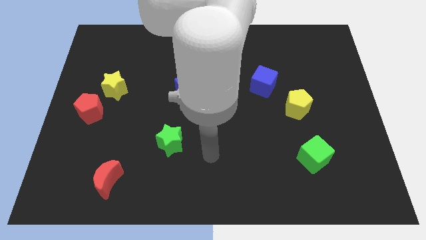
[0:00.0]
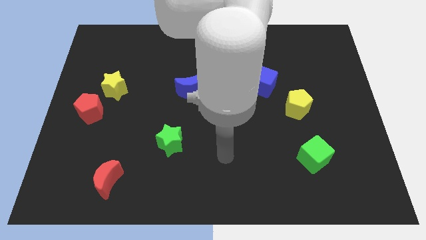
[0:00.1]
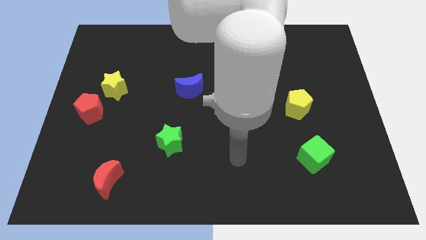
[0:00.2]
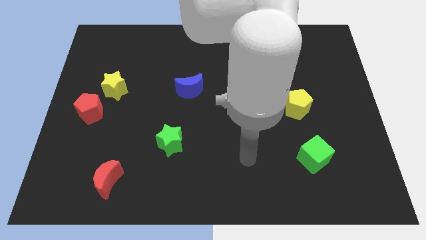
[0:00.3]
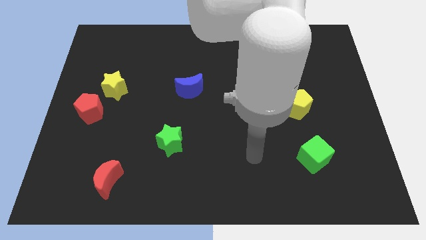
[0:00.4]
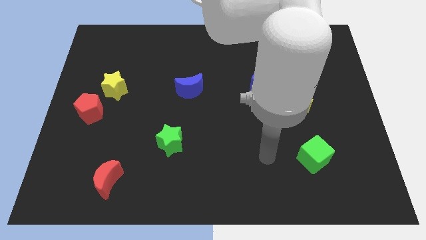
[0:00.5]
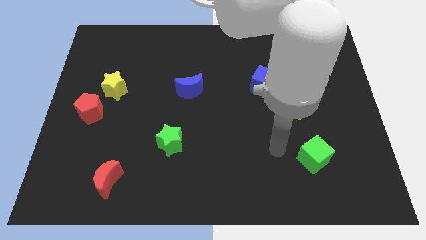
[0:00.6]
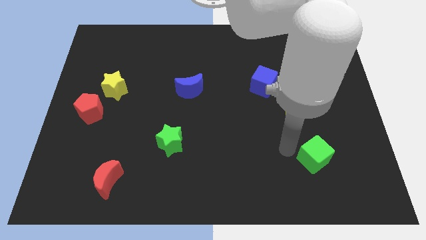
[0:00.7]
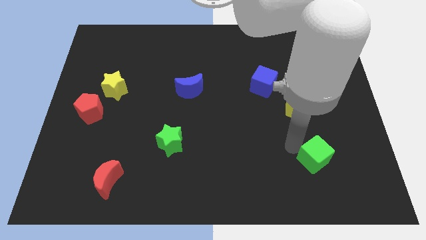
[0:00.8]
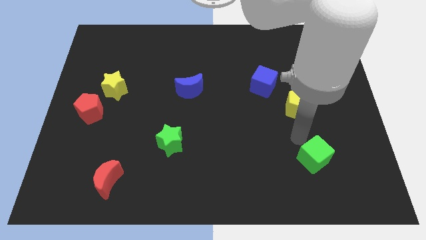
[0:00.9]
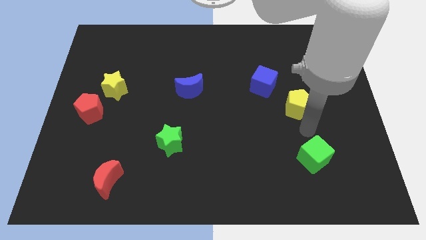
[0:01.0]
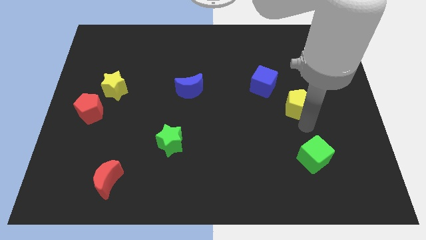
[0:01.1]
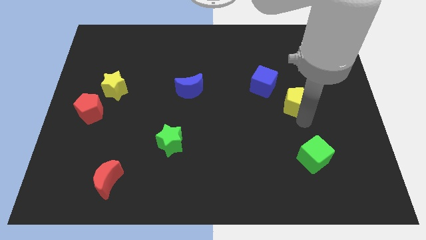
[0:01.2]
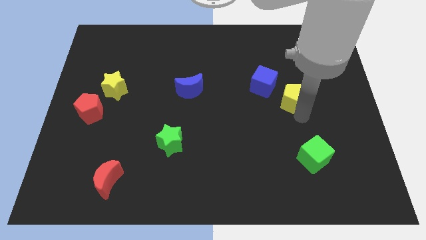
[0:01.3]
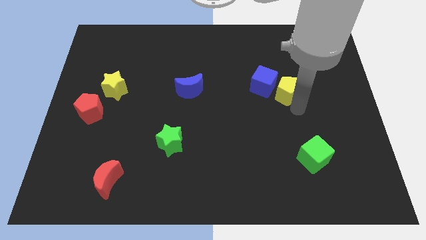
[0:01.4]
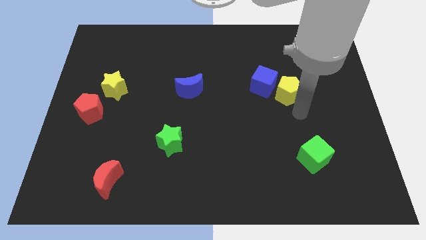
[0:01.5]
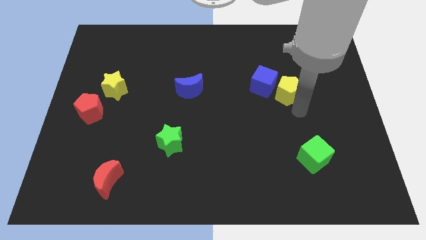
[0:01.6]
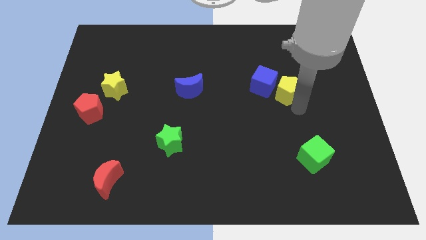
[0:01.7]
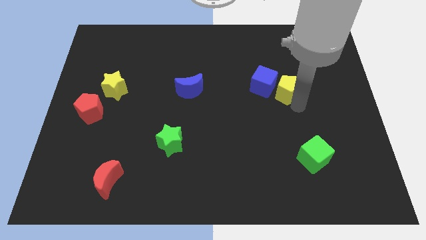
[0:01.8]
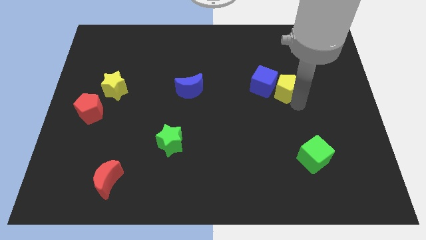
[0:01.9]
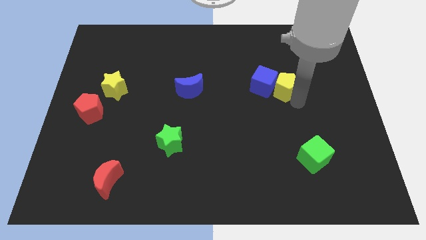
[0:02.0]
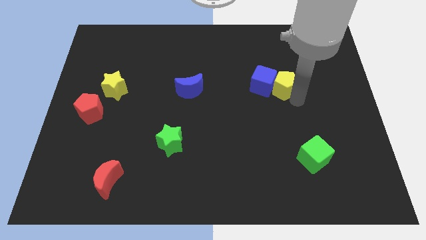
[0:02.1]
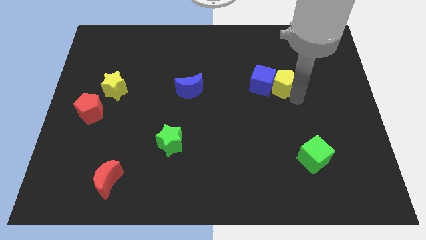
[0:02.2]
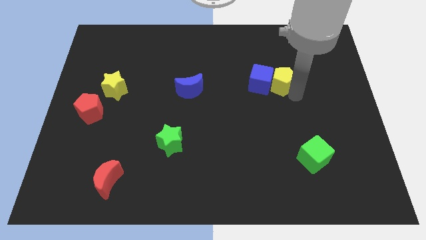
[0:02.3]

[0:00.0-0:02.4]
slightly move the yellow pentagon upwards and left diagonally

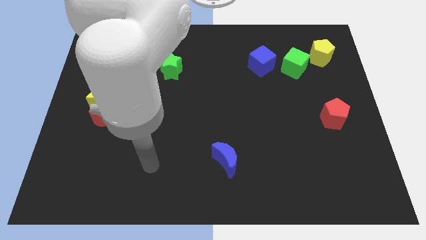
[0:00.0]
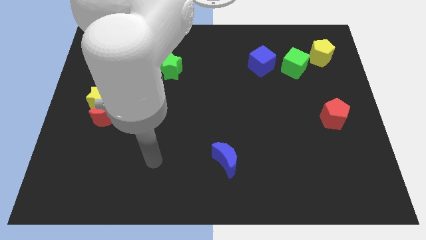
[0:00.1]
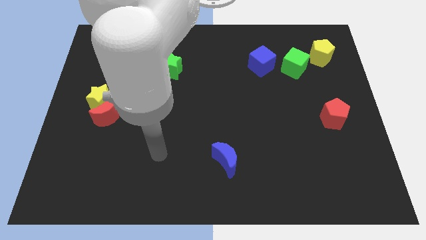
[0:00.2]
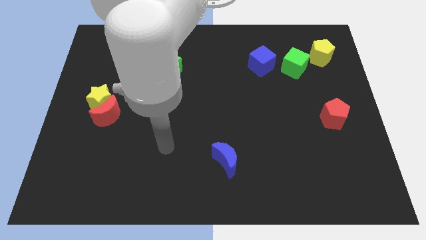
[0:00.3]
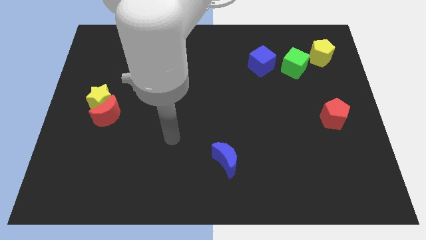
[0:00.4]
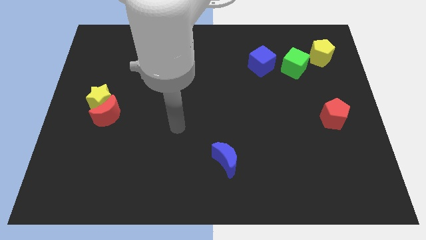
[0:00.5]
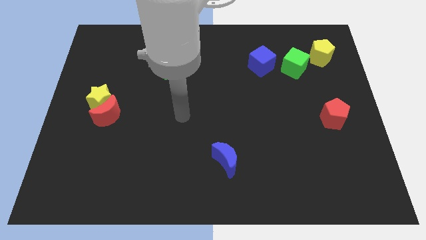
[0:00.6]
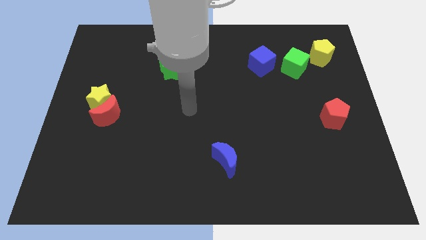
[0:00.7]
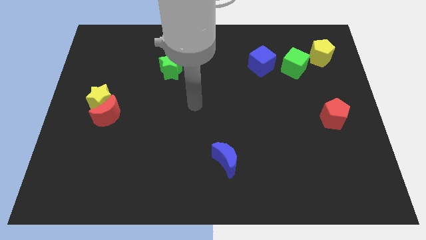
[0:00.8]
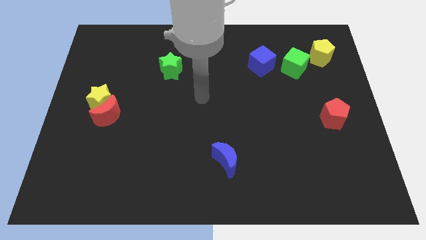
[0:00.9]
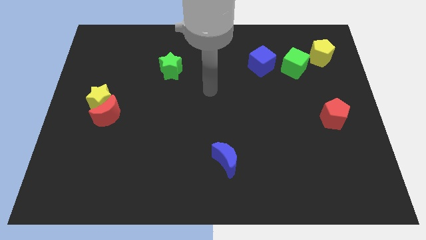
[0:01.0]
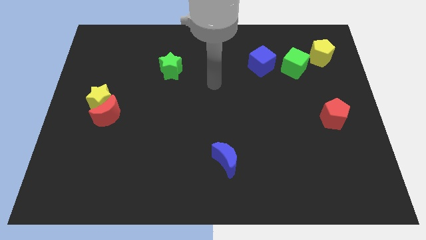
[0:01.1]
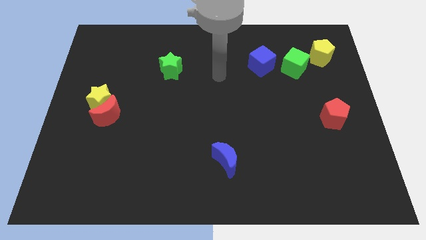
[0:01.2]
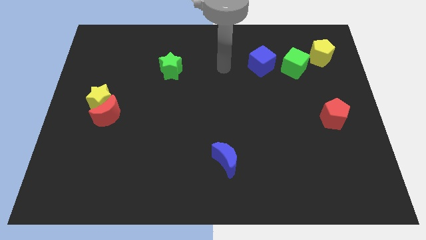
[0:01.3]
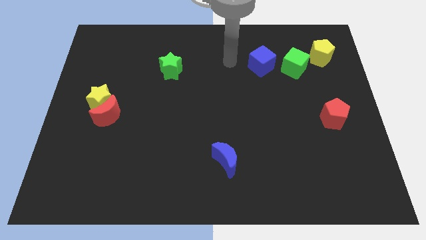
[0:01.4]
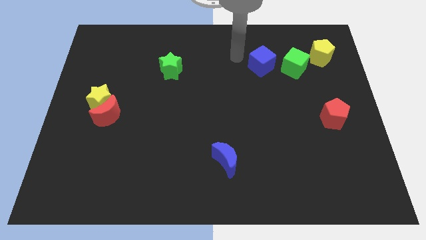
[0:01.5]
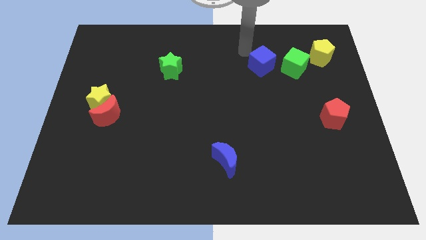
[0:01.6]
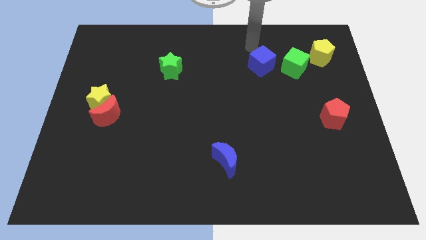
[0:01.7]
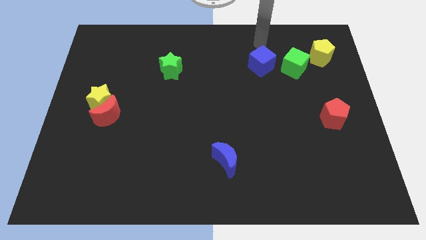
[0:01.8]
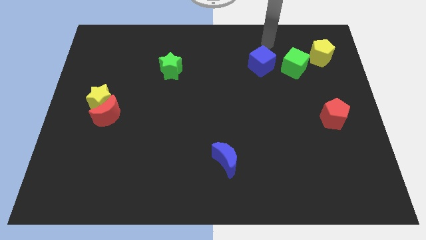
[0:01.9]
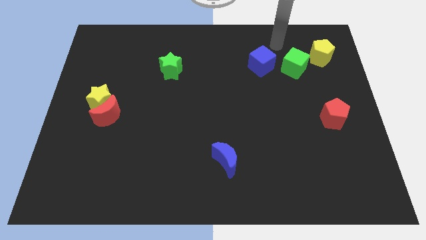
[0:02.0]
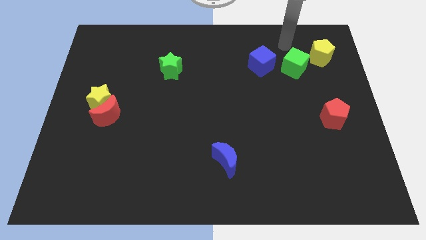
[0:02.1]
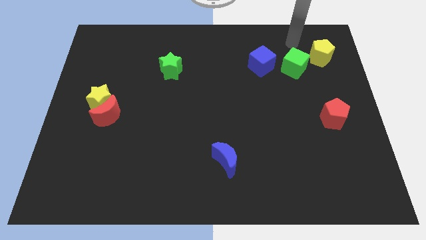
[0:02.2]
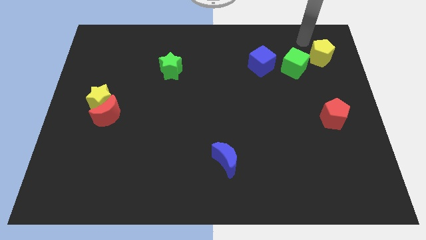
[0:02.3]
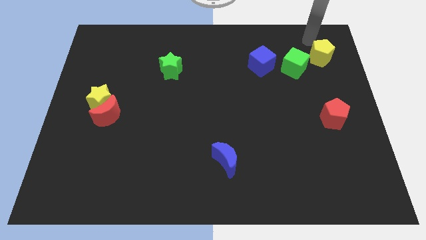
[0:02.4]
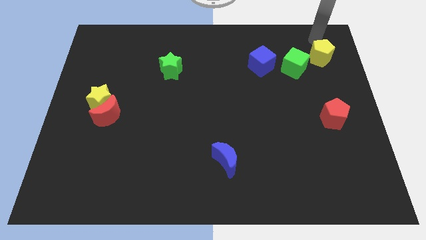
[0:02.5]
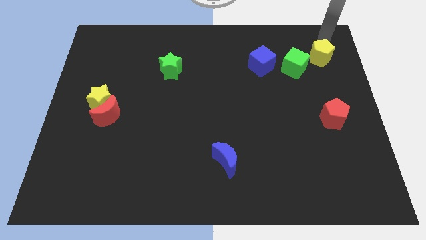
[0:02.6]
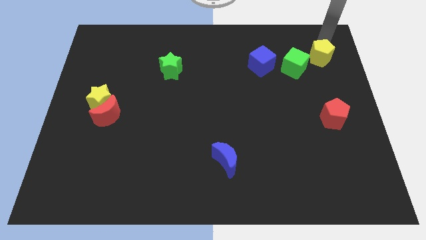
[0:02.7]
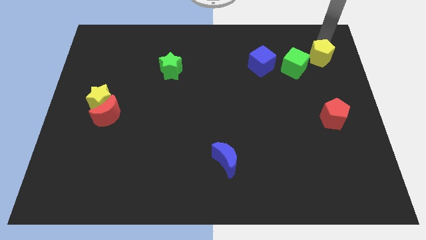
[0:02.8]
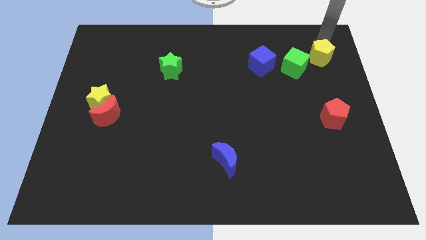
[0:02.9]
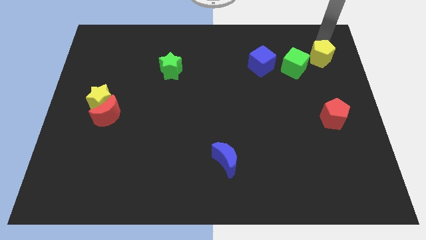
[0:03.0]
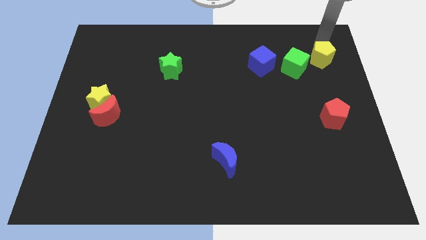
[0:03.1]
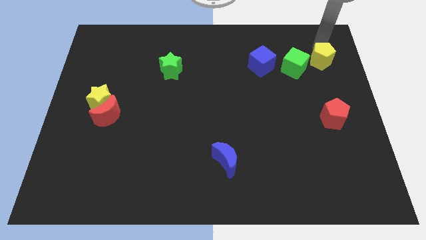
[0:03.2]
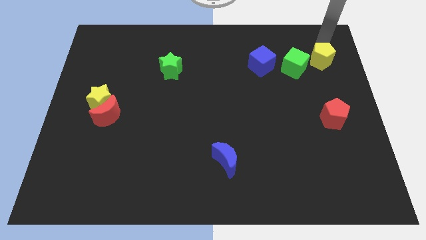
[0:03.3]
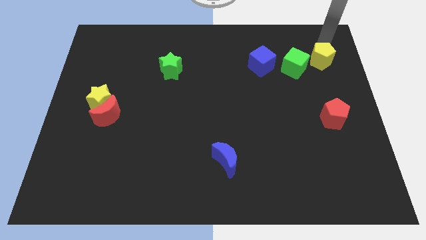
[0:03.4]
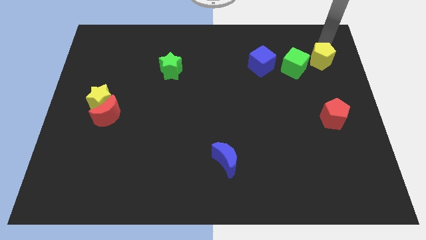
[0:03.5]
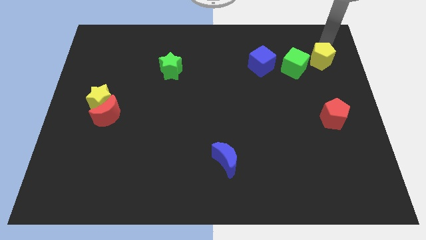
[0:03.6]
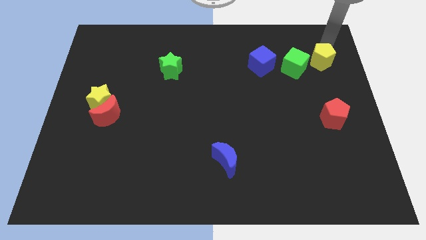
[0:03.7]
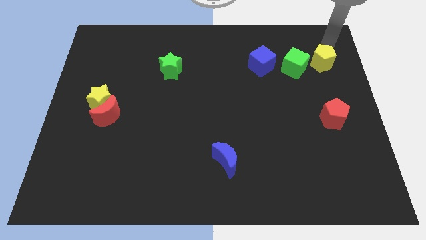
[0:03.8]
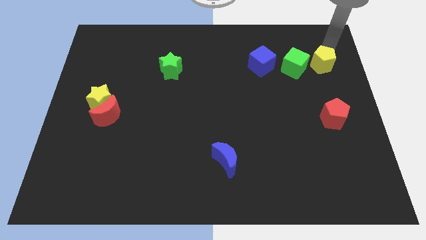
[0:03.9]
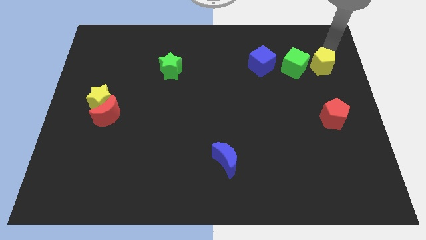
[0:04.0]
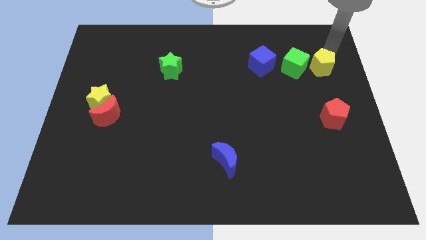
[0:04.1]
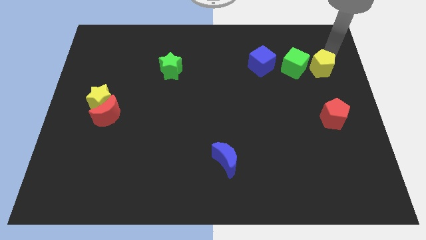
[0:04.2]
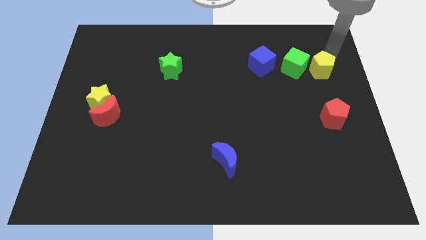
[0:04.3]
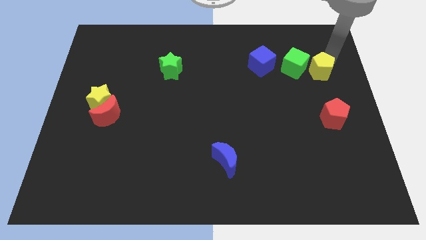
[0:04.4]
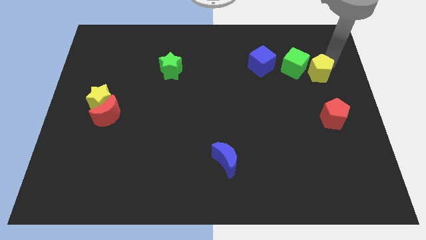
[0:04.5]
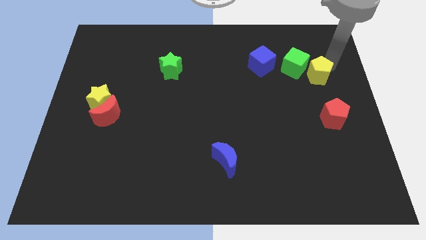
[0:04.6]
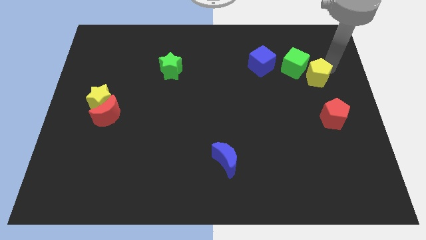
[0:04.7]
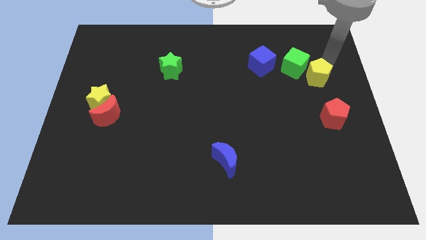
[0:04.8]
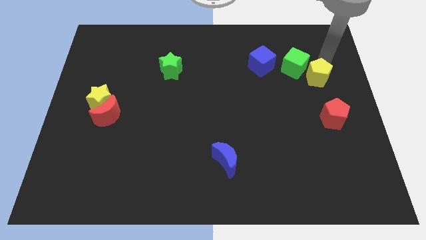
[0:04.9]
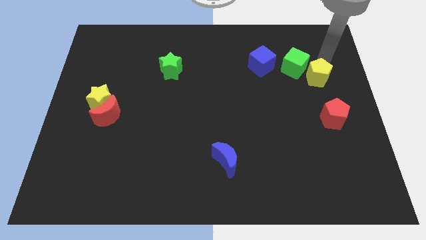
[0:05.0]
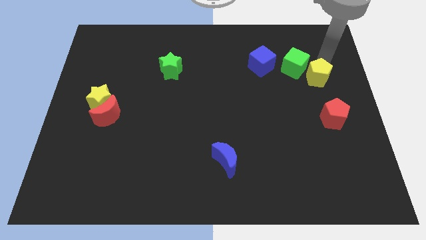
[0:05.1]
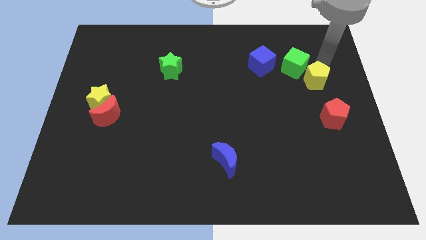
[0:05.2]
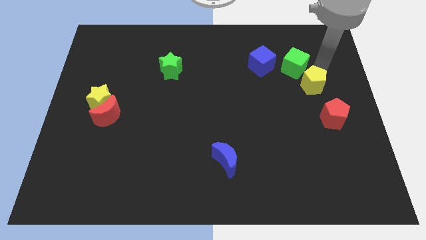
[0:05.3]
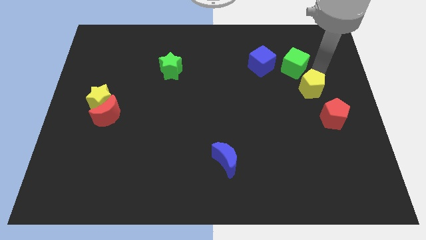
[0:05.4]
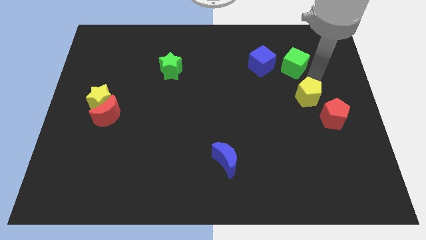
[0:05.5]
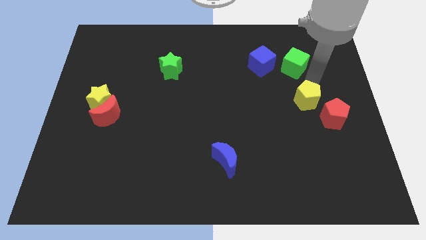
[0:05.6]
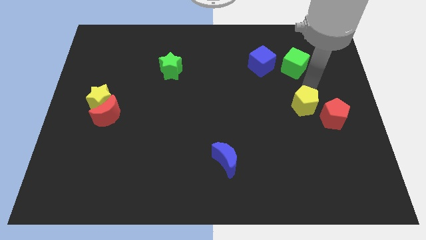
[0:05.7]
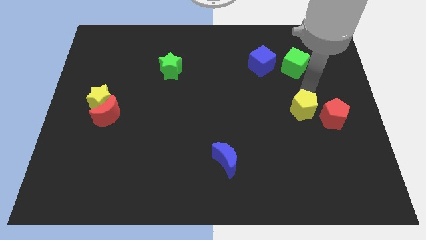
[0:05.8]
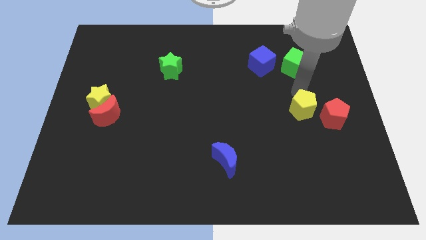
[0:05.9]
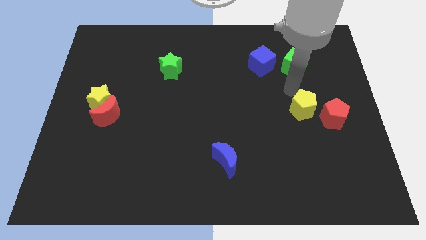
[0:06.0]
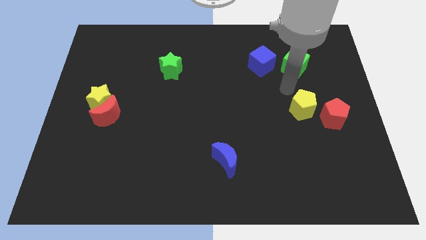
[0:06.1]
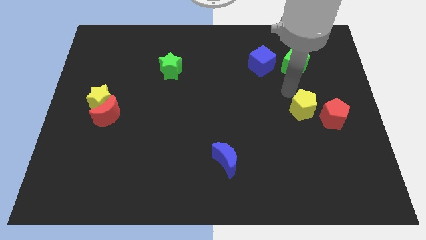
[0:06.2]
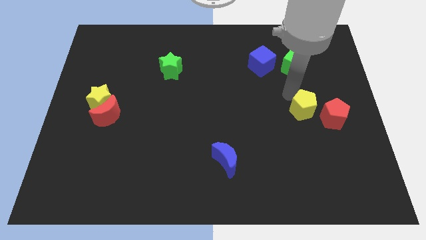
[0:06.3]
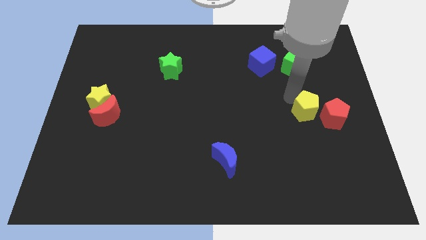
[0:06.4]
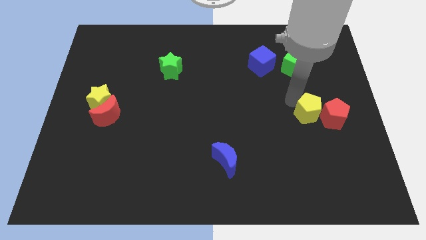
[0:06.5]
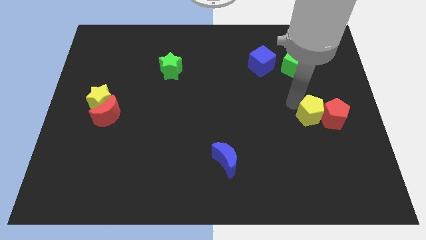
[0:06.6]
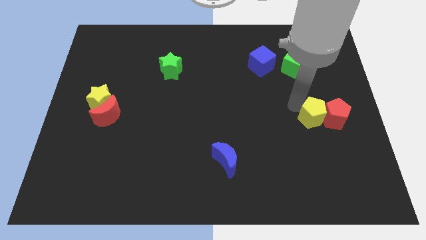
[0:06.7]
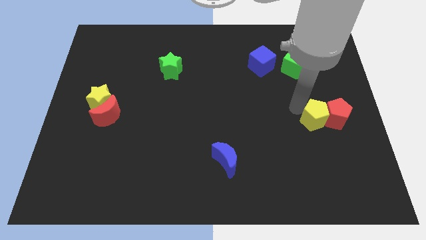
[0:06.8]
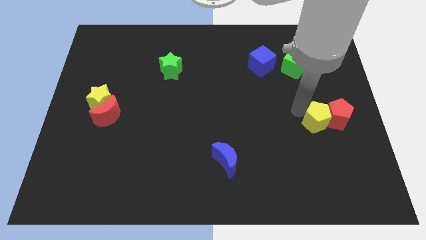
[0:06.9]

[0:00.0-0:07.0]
slide the yellow pentagon down
